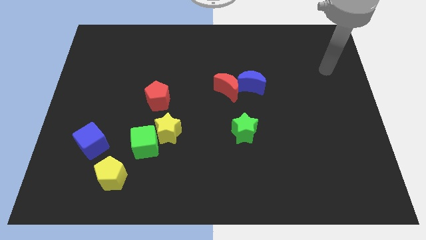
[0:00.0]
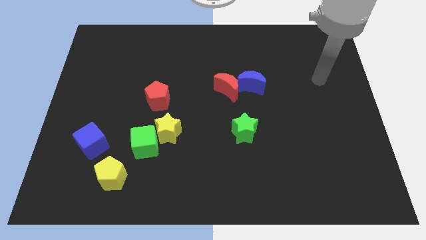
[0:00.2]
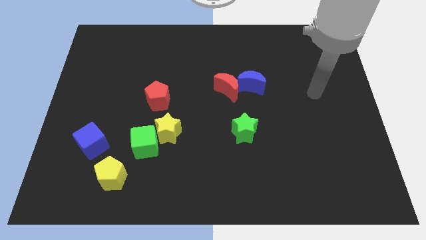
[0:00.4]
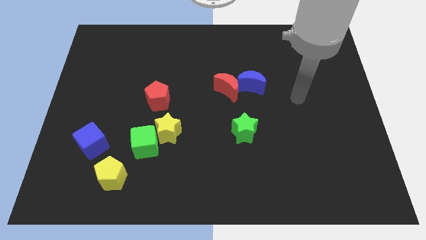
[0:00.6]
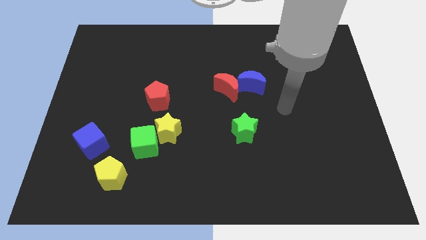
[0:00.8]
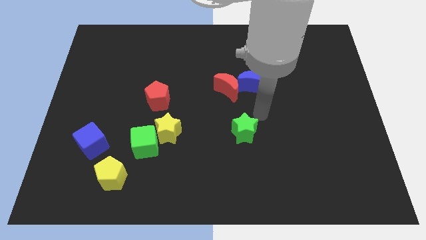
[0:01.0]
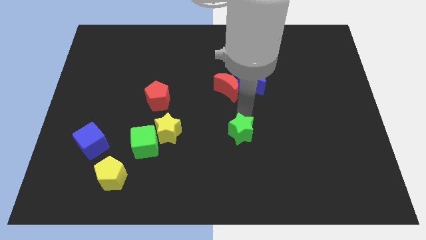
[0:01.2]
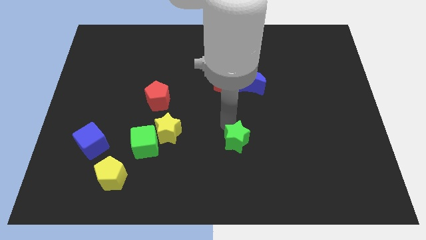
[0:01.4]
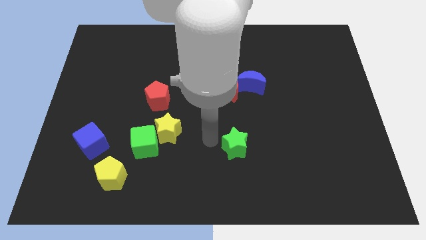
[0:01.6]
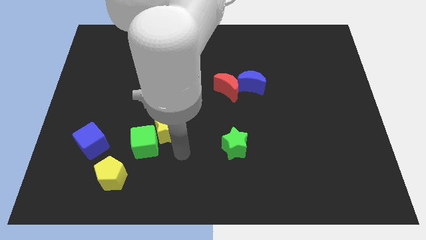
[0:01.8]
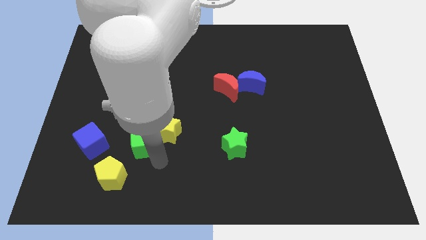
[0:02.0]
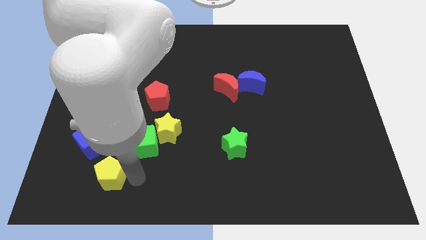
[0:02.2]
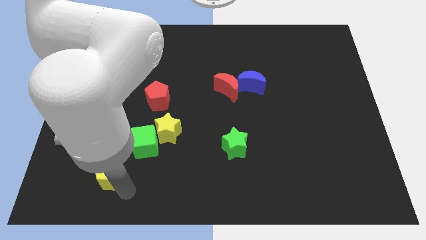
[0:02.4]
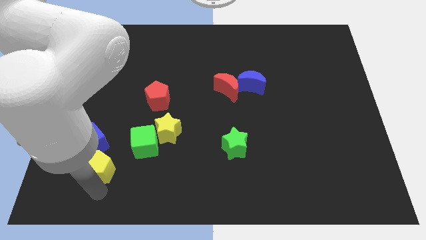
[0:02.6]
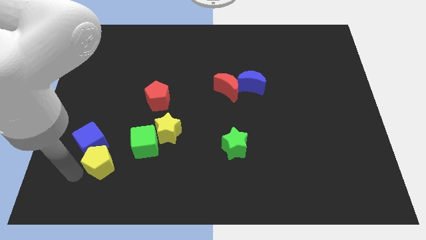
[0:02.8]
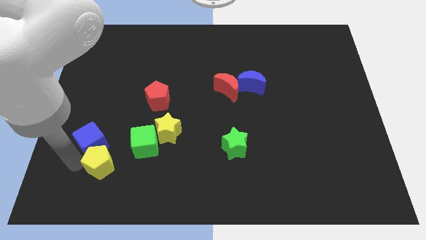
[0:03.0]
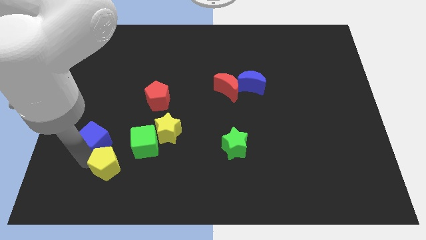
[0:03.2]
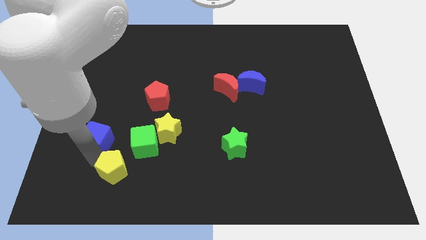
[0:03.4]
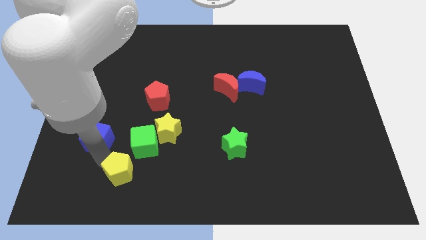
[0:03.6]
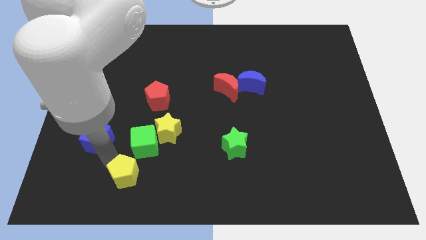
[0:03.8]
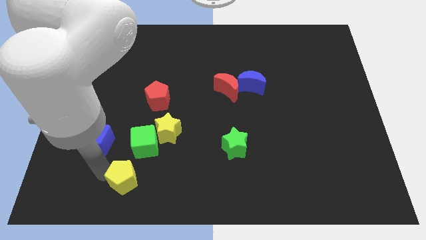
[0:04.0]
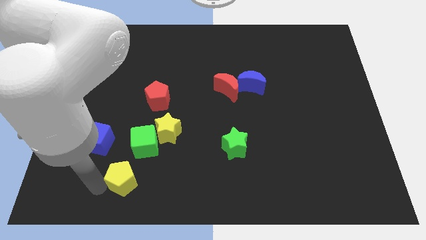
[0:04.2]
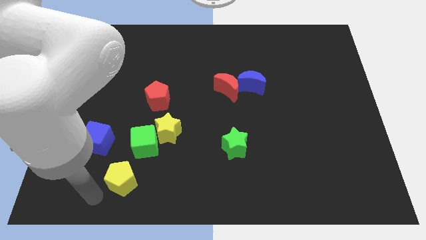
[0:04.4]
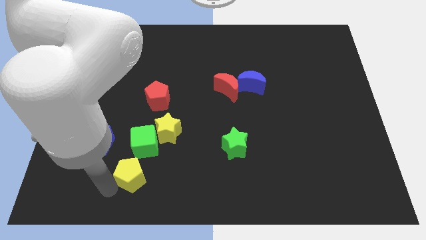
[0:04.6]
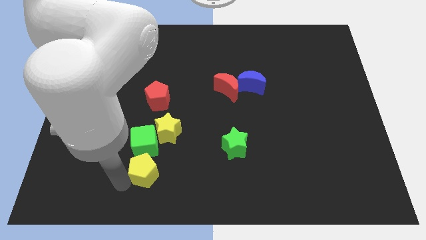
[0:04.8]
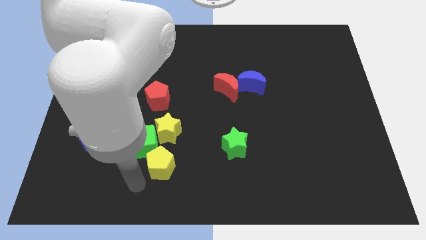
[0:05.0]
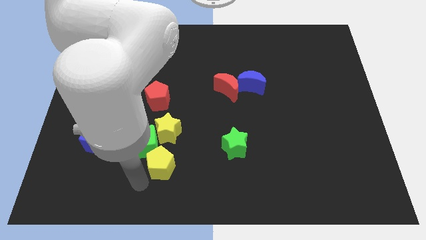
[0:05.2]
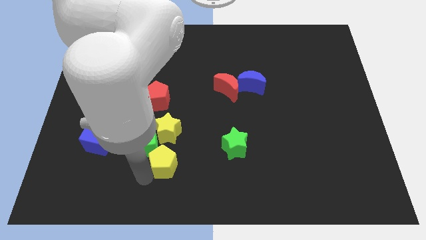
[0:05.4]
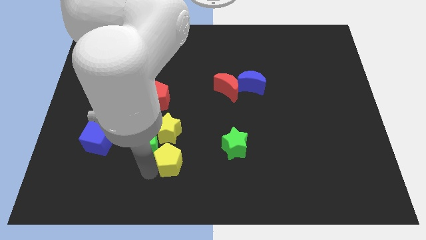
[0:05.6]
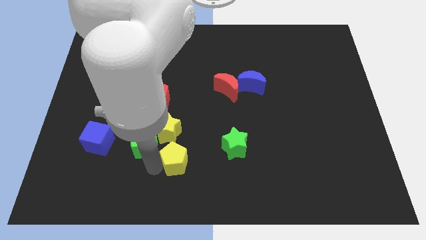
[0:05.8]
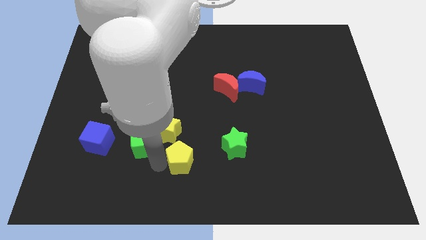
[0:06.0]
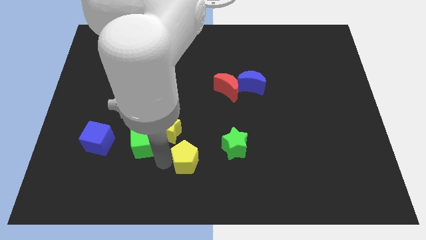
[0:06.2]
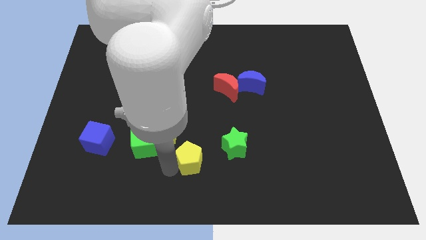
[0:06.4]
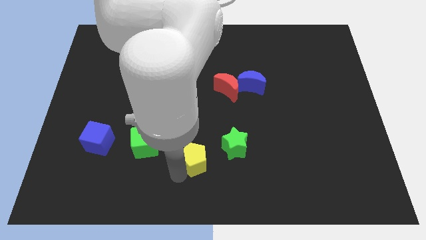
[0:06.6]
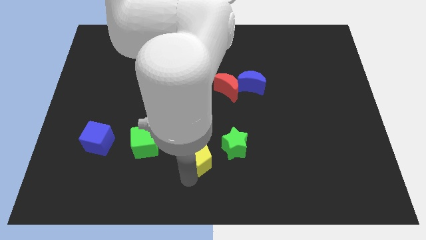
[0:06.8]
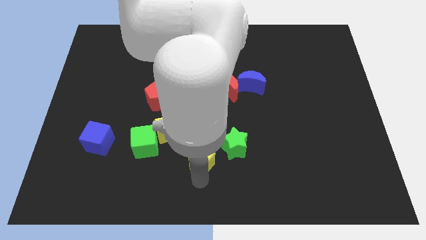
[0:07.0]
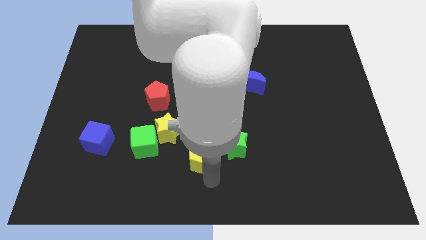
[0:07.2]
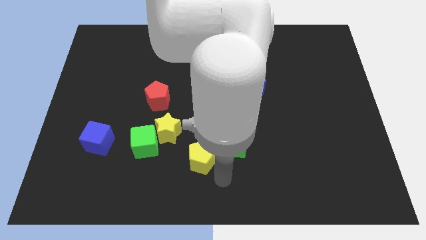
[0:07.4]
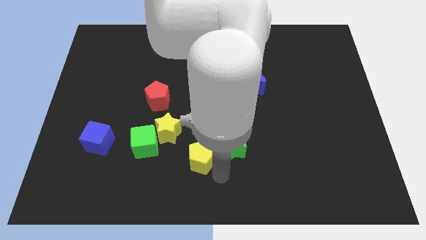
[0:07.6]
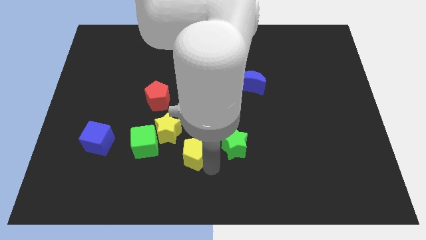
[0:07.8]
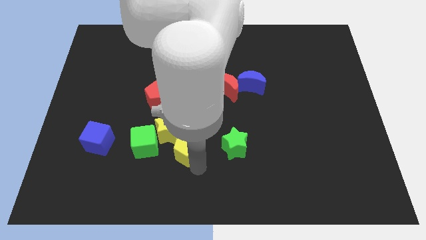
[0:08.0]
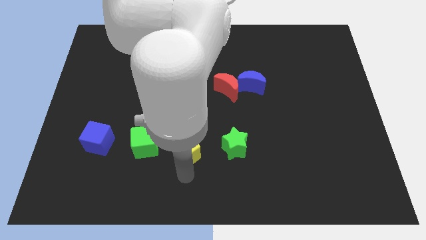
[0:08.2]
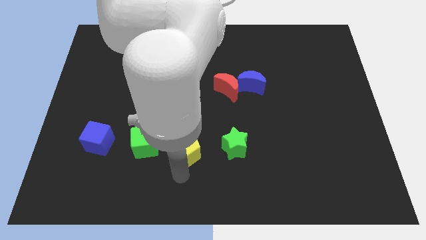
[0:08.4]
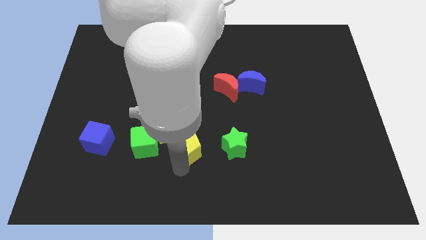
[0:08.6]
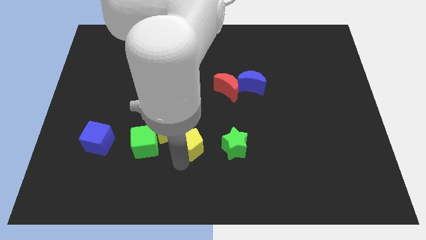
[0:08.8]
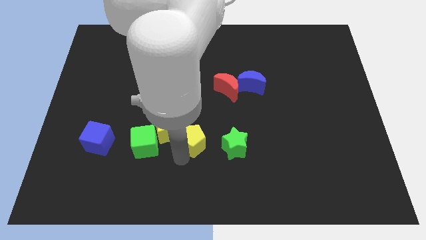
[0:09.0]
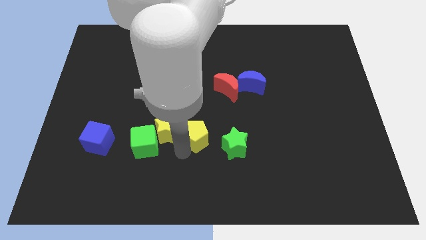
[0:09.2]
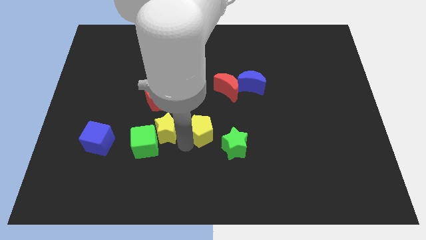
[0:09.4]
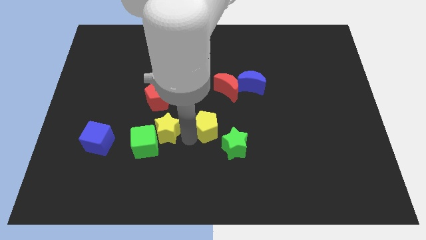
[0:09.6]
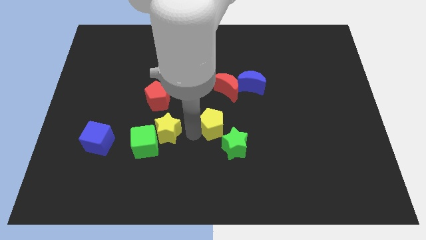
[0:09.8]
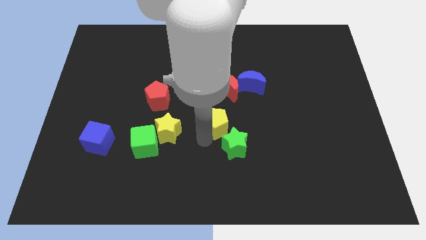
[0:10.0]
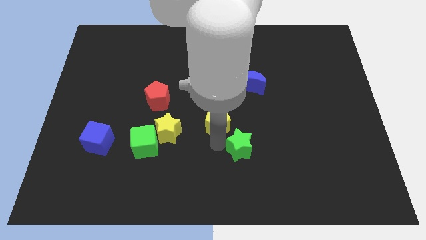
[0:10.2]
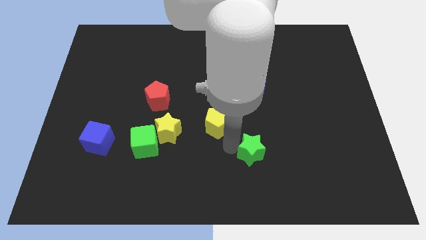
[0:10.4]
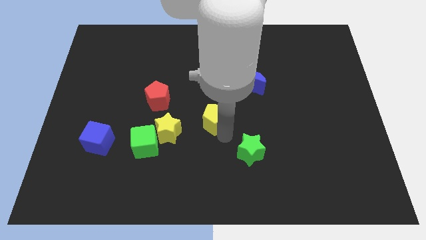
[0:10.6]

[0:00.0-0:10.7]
move the yellow pentagon to the bottom left side of the red moon

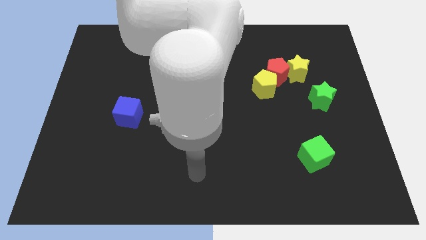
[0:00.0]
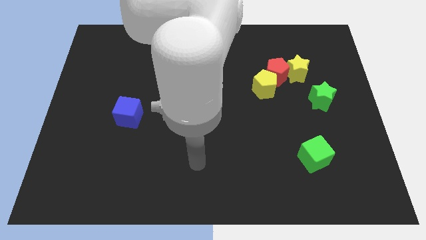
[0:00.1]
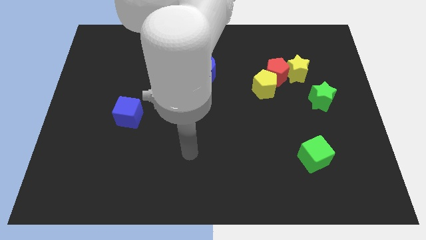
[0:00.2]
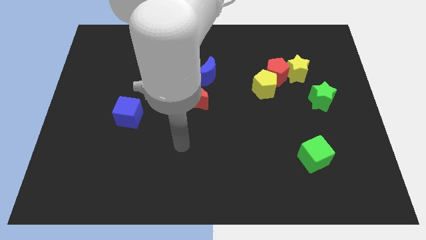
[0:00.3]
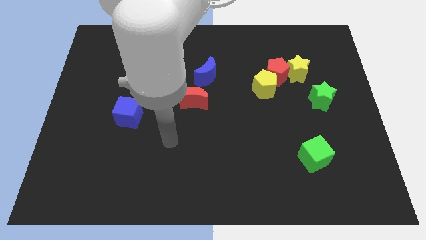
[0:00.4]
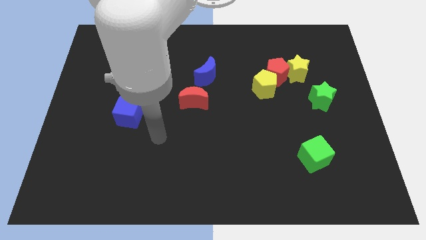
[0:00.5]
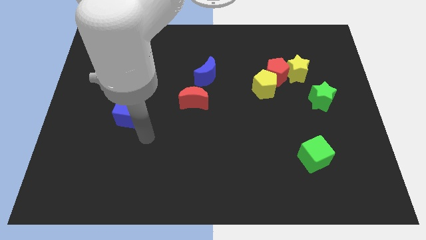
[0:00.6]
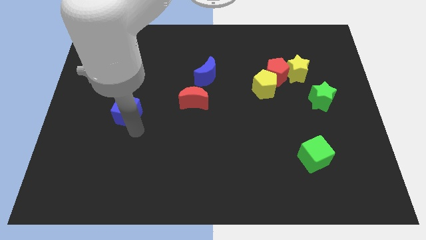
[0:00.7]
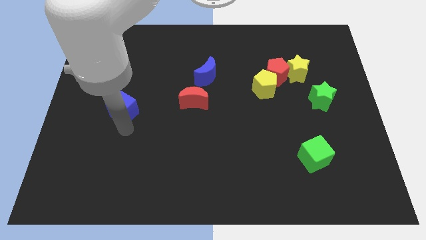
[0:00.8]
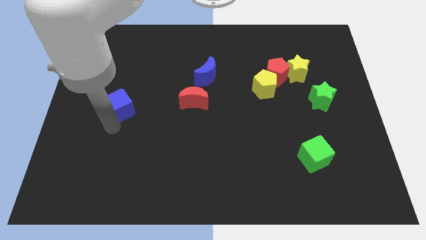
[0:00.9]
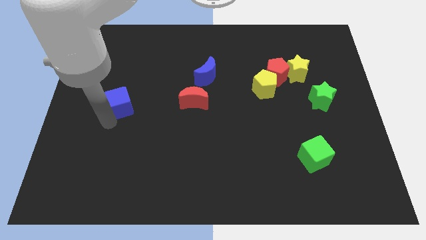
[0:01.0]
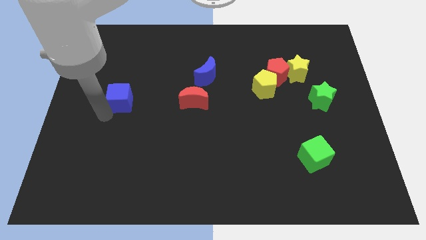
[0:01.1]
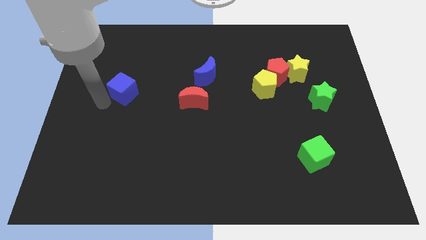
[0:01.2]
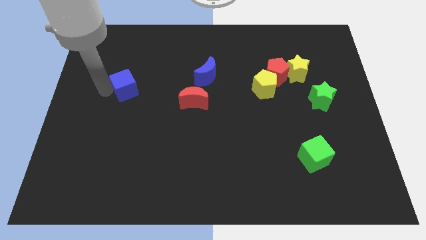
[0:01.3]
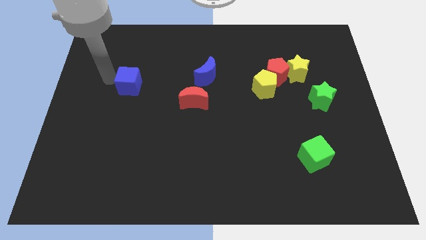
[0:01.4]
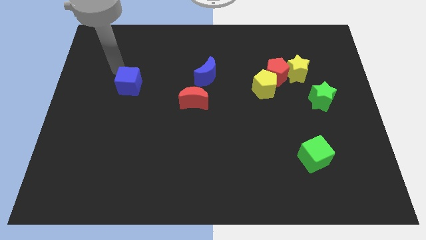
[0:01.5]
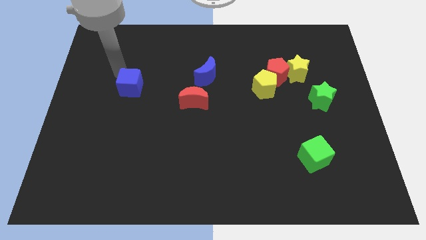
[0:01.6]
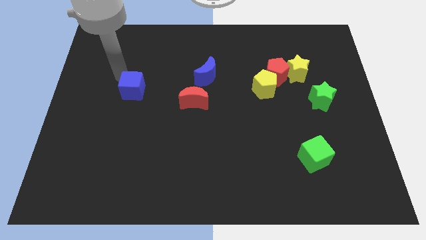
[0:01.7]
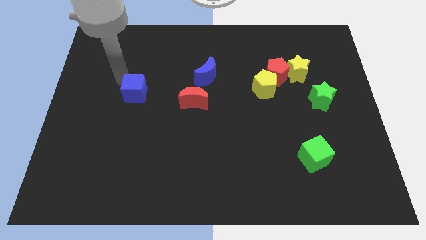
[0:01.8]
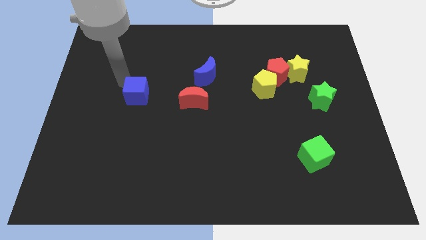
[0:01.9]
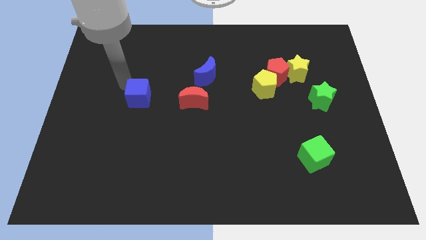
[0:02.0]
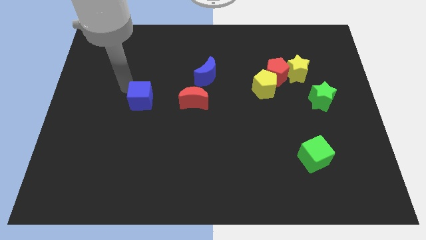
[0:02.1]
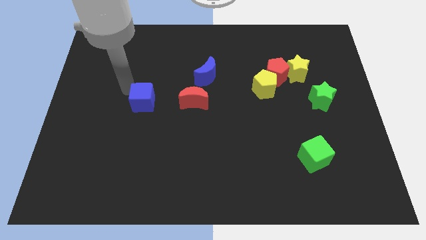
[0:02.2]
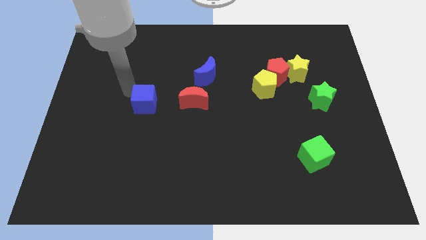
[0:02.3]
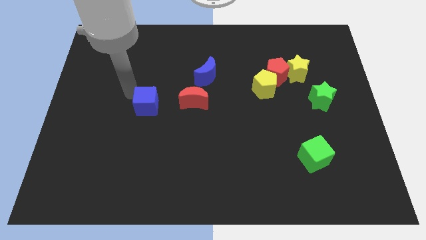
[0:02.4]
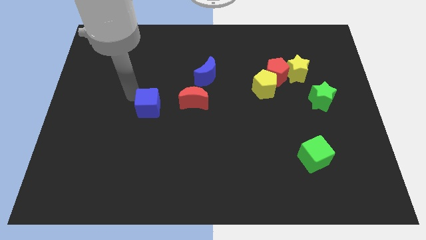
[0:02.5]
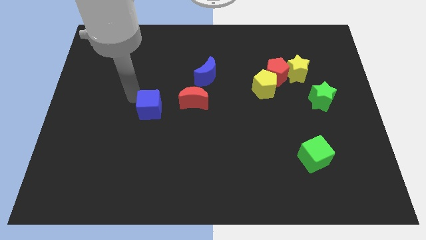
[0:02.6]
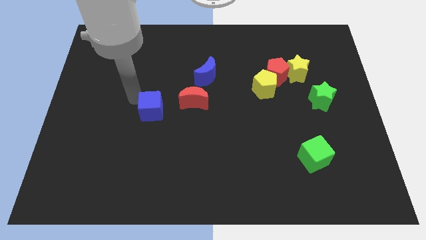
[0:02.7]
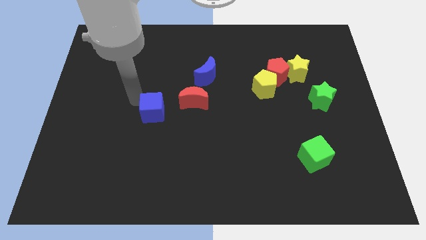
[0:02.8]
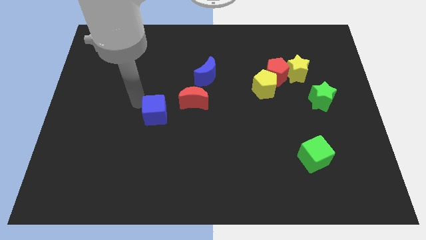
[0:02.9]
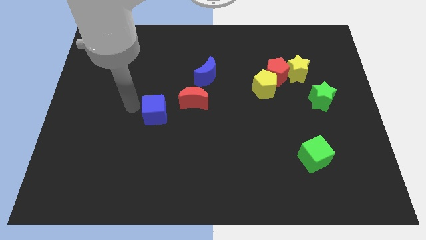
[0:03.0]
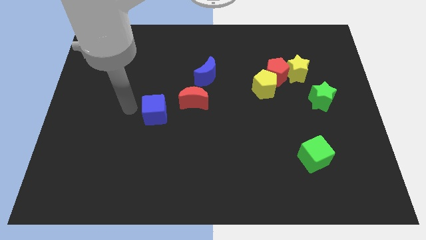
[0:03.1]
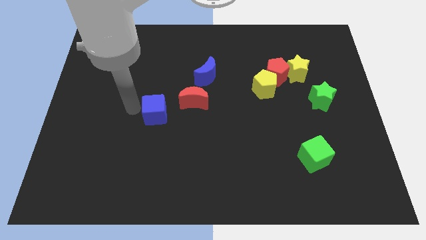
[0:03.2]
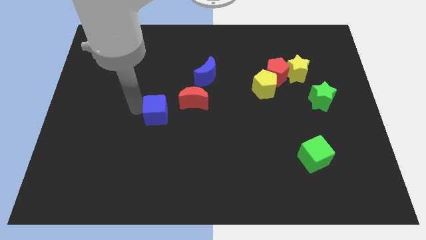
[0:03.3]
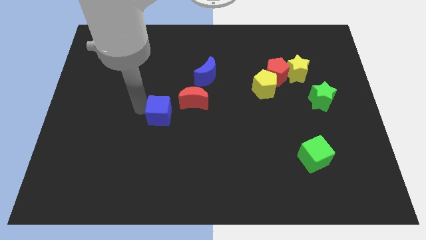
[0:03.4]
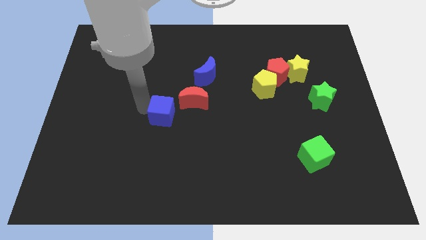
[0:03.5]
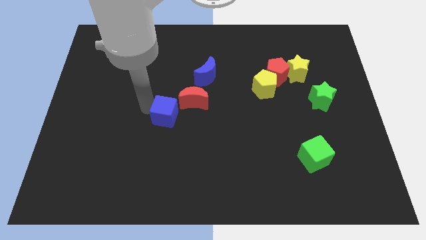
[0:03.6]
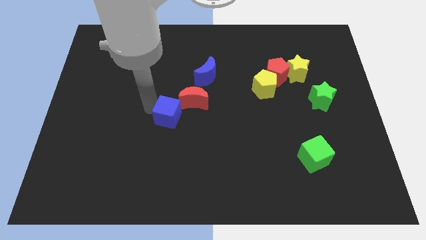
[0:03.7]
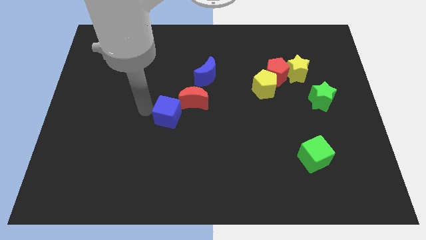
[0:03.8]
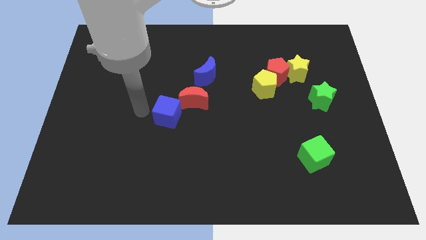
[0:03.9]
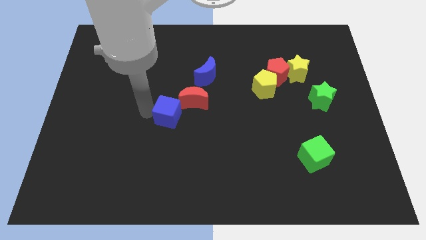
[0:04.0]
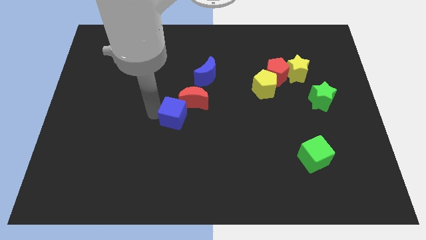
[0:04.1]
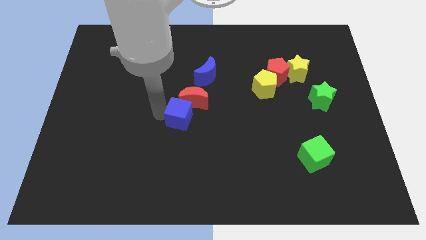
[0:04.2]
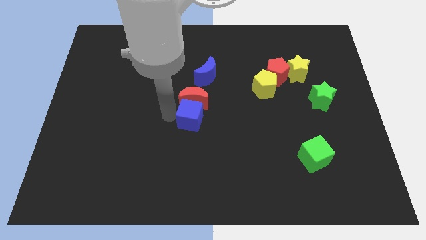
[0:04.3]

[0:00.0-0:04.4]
put the blue cube diagonally down and to the right of the red moon
